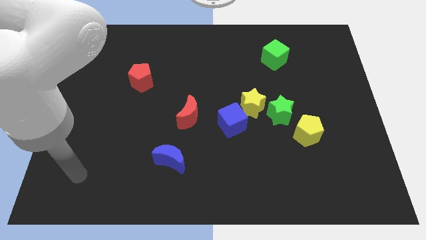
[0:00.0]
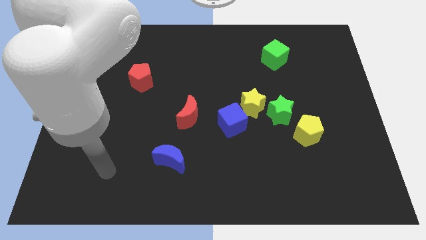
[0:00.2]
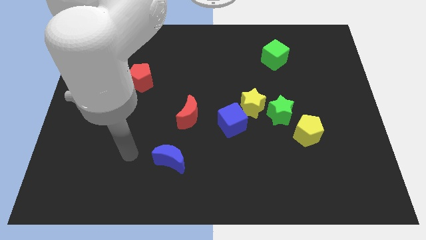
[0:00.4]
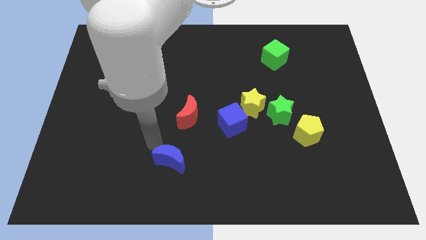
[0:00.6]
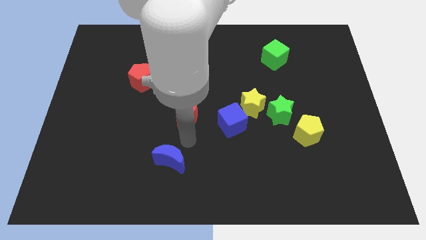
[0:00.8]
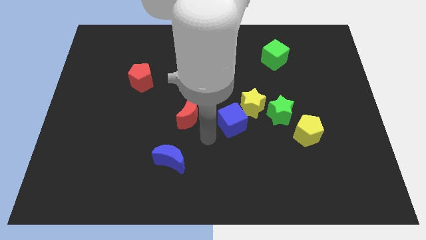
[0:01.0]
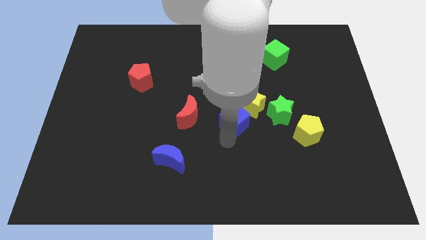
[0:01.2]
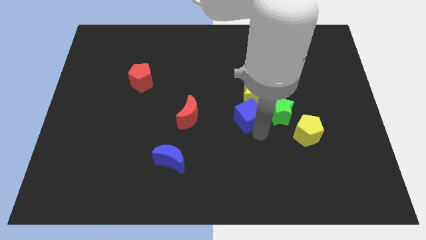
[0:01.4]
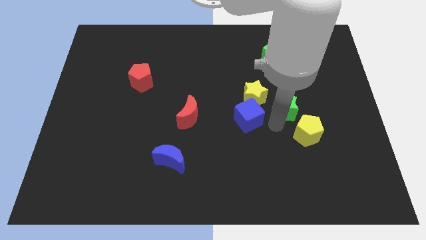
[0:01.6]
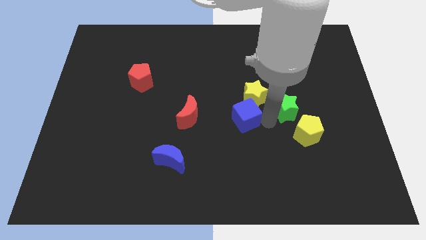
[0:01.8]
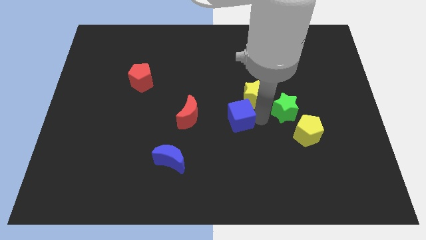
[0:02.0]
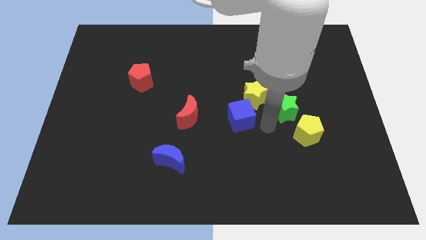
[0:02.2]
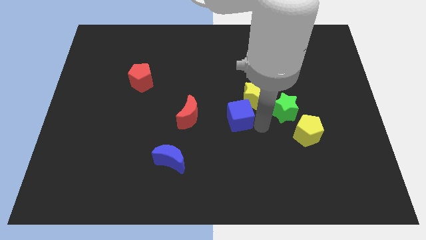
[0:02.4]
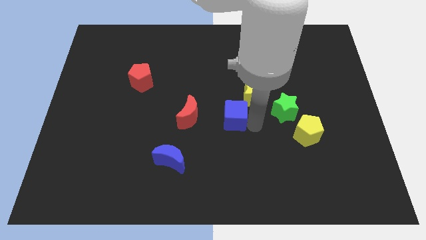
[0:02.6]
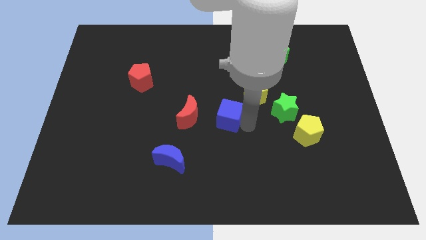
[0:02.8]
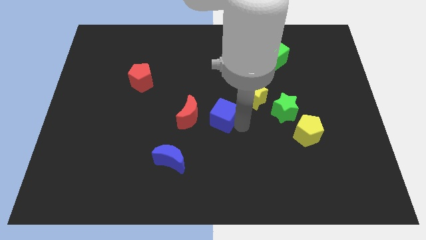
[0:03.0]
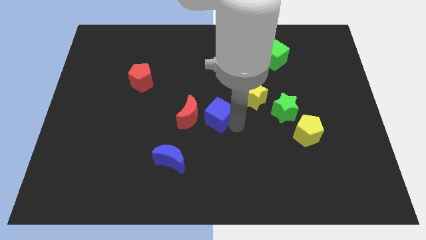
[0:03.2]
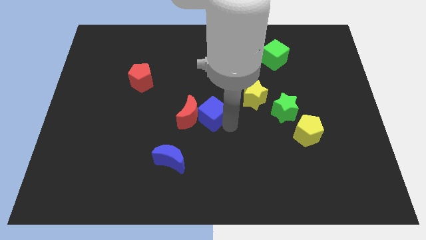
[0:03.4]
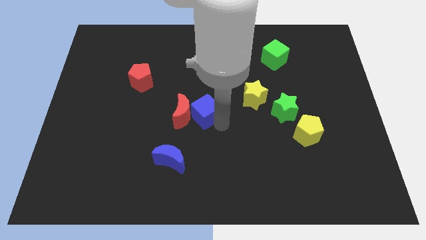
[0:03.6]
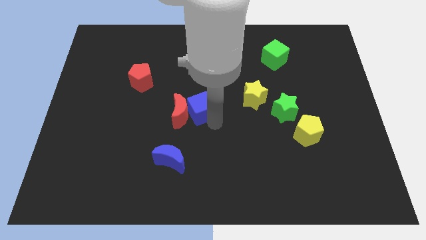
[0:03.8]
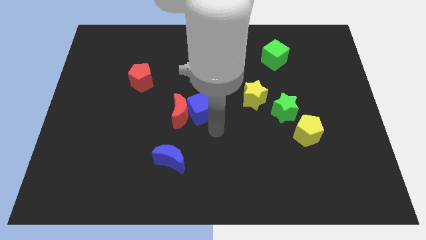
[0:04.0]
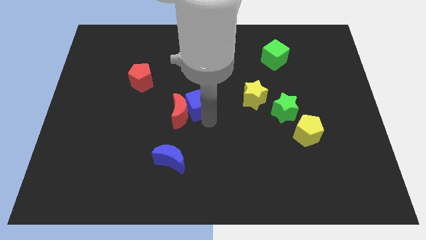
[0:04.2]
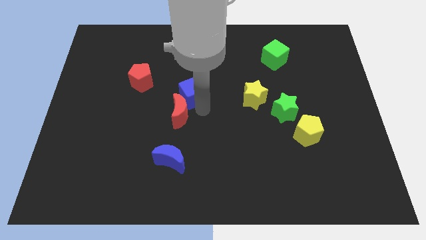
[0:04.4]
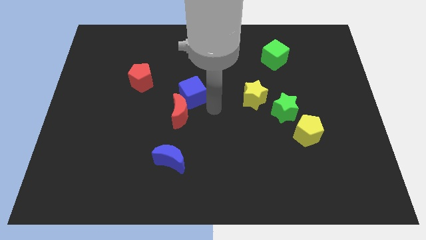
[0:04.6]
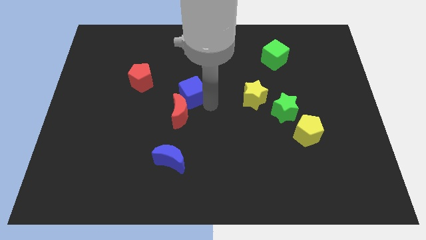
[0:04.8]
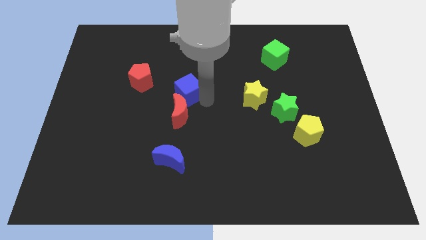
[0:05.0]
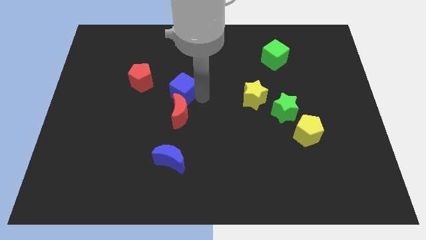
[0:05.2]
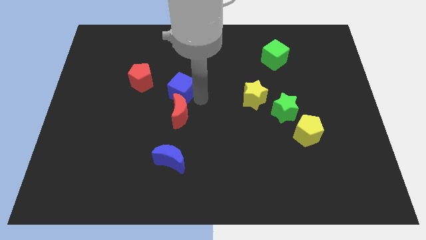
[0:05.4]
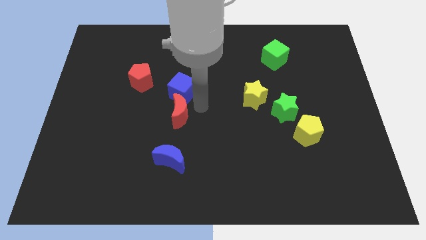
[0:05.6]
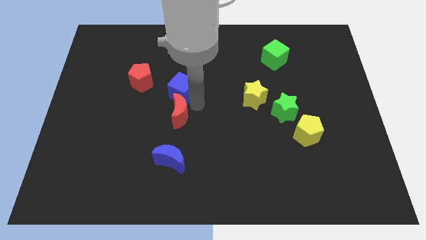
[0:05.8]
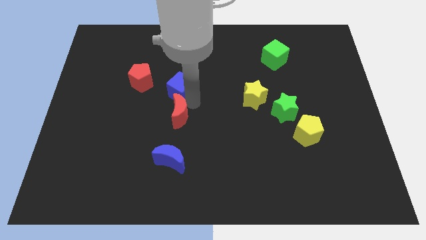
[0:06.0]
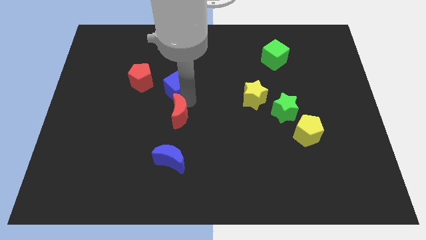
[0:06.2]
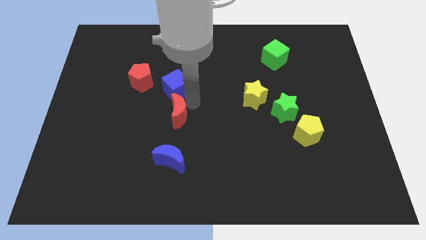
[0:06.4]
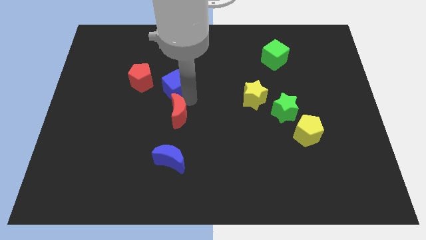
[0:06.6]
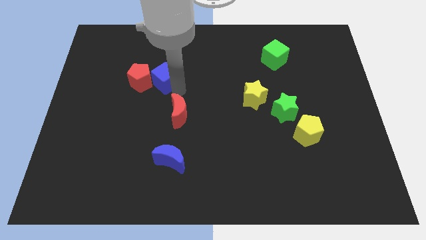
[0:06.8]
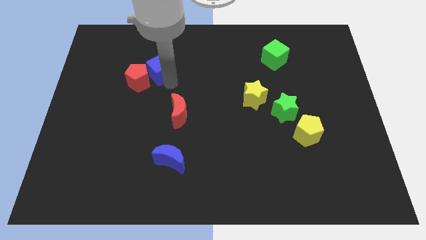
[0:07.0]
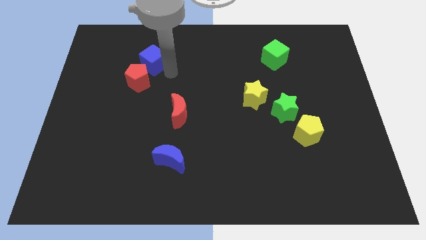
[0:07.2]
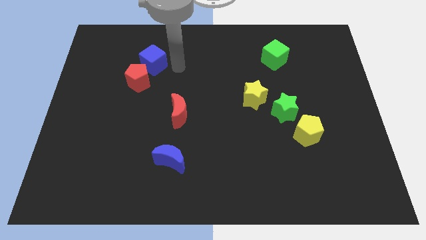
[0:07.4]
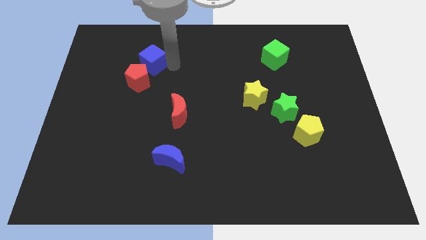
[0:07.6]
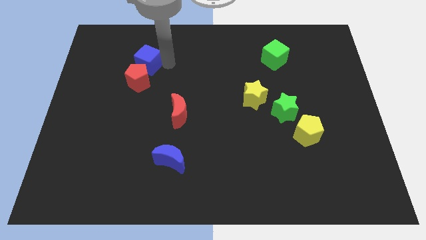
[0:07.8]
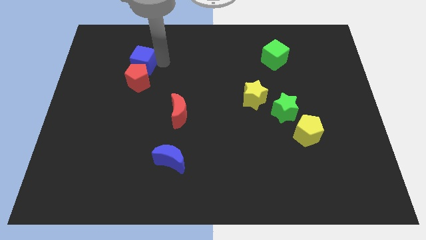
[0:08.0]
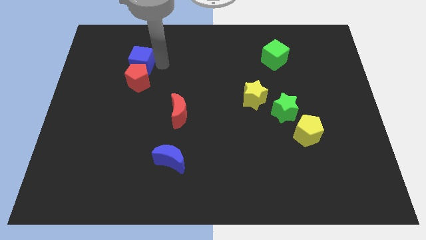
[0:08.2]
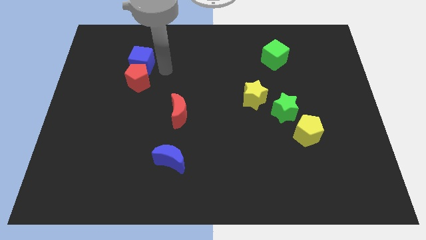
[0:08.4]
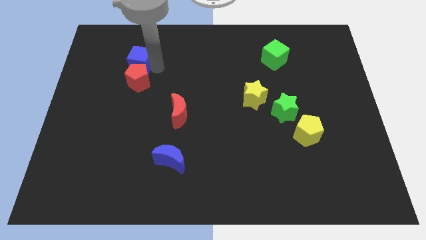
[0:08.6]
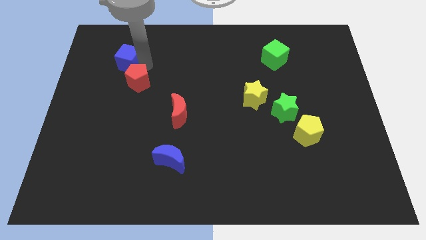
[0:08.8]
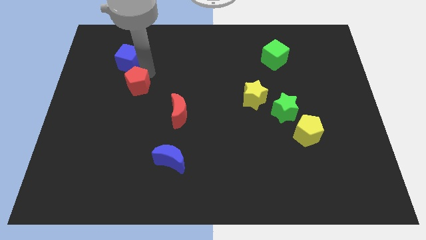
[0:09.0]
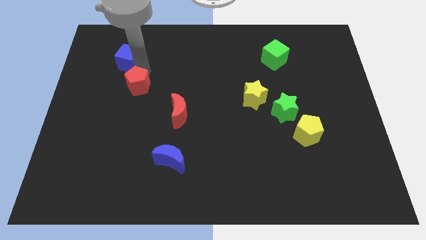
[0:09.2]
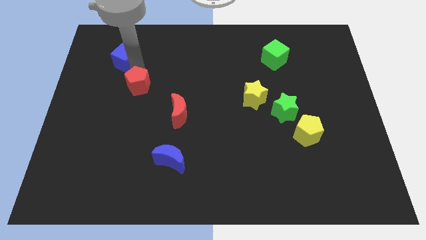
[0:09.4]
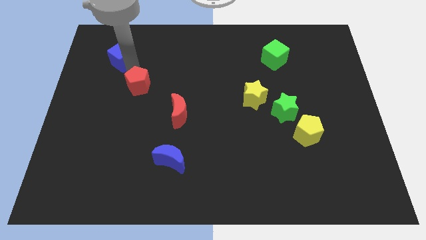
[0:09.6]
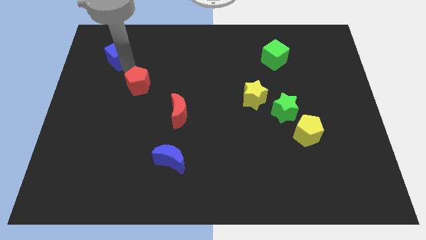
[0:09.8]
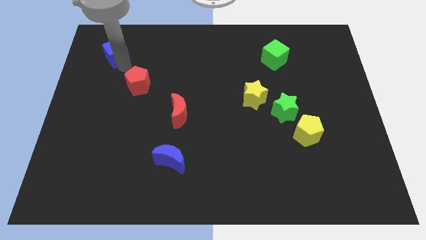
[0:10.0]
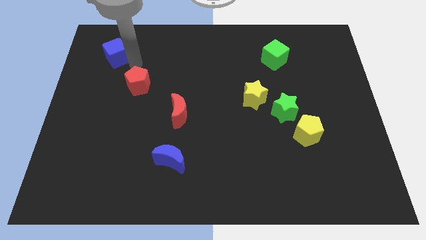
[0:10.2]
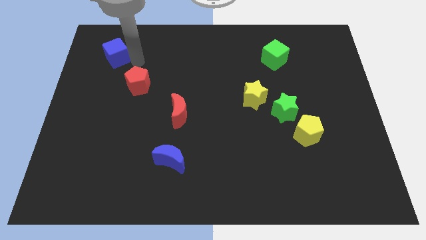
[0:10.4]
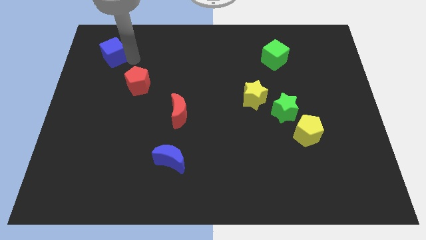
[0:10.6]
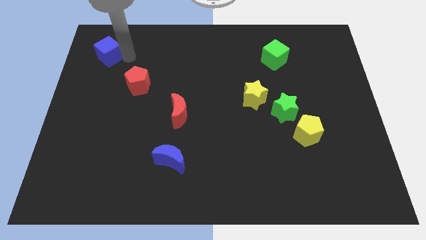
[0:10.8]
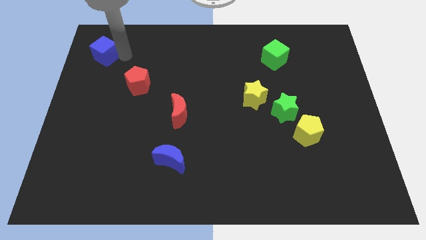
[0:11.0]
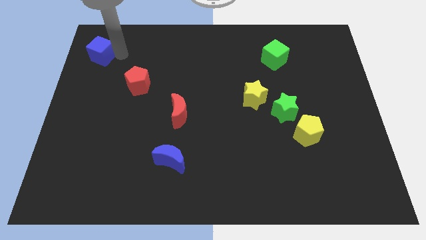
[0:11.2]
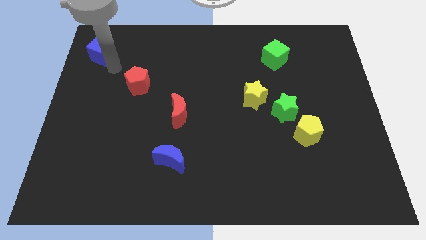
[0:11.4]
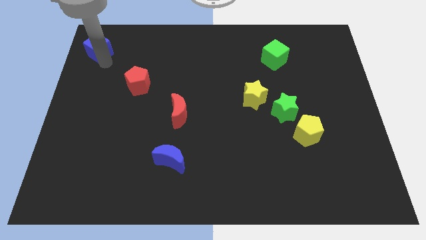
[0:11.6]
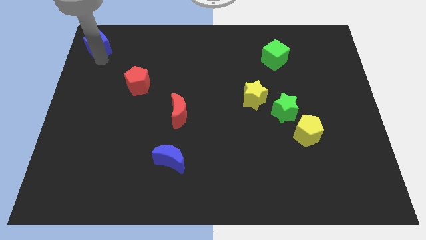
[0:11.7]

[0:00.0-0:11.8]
put the blue cube to the upper left corner

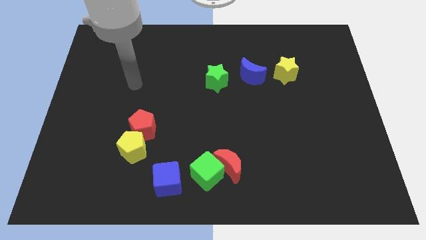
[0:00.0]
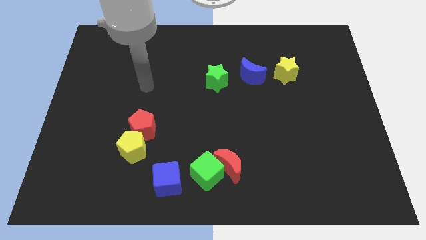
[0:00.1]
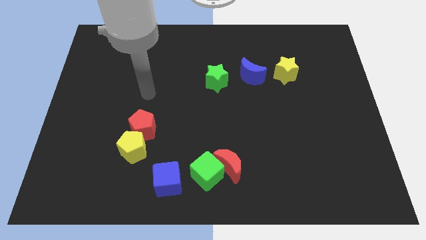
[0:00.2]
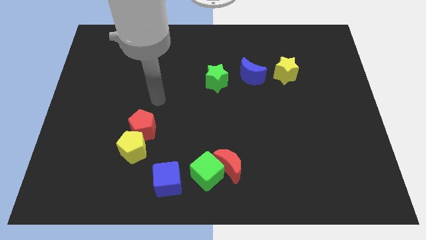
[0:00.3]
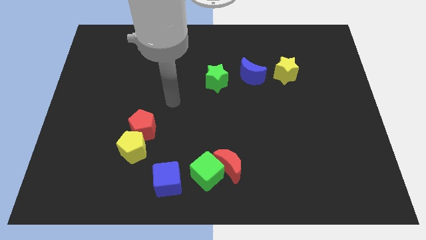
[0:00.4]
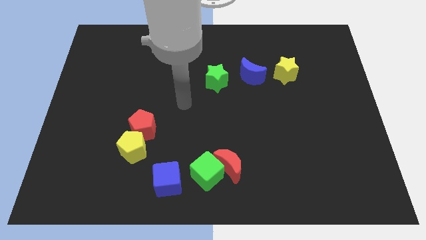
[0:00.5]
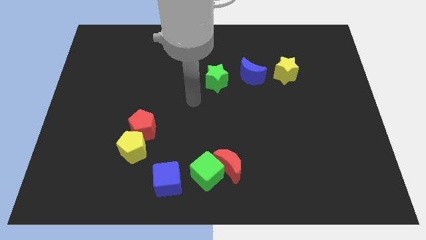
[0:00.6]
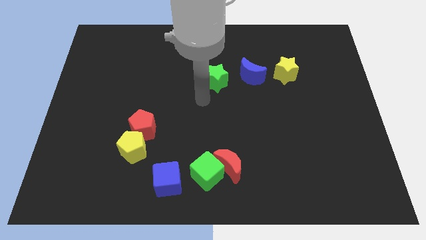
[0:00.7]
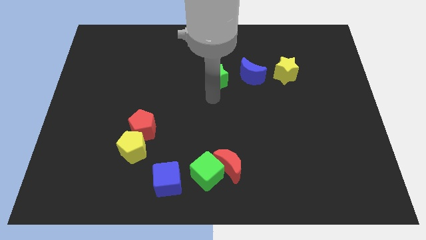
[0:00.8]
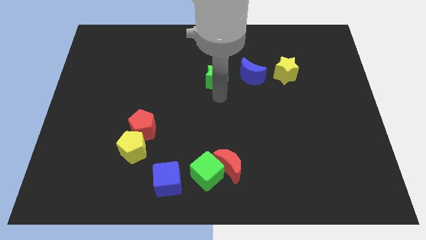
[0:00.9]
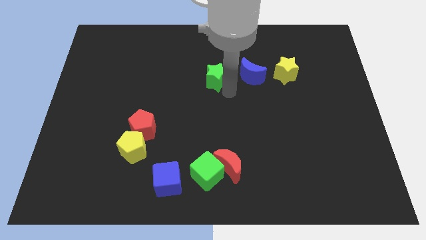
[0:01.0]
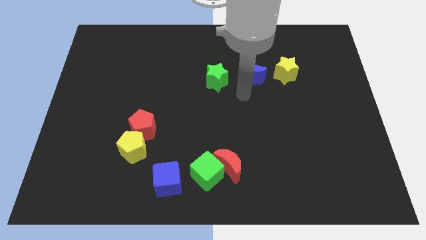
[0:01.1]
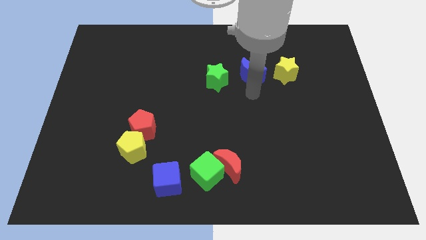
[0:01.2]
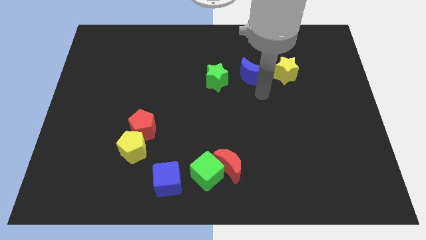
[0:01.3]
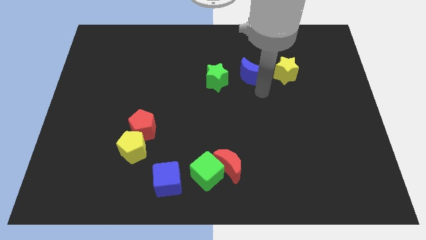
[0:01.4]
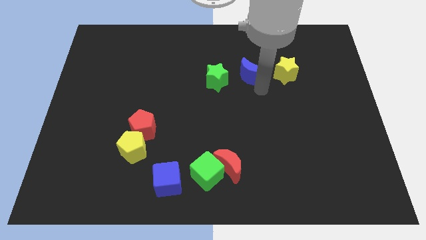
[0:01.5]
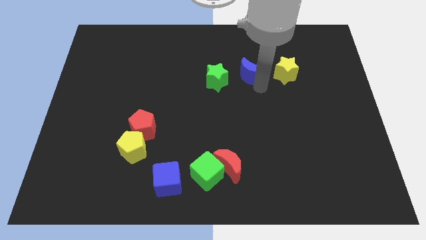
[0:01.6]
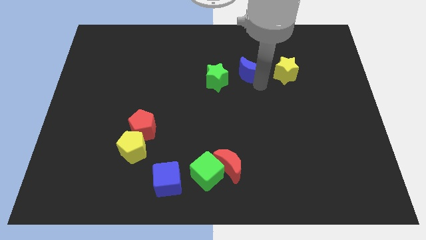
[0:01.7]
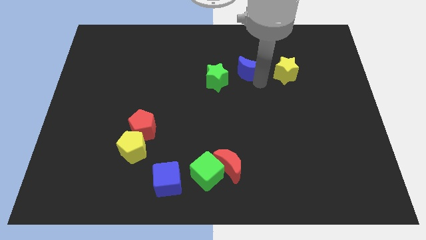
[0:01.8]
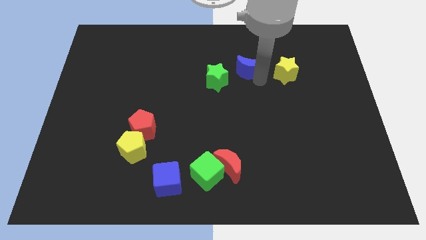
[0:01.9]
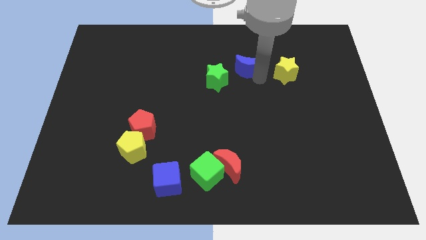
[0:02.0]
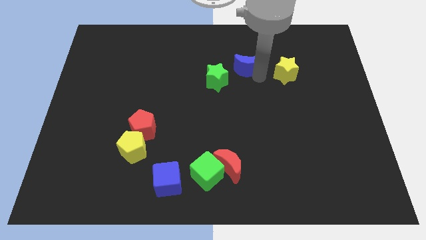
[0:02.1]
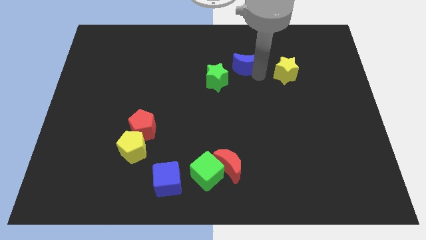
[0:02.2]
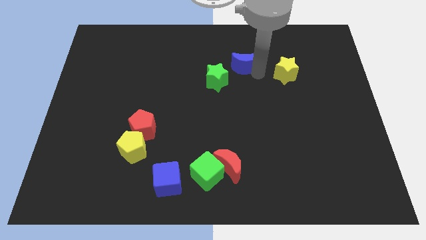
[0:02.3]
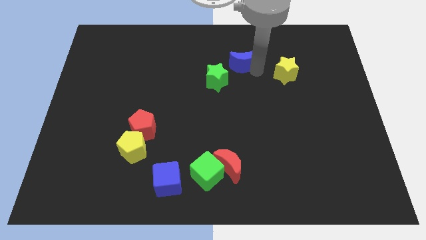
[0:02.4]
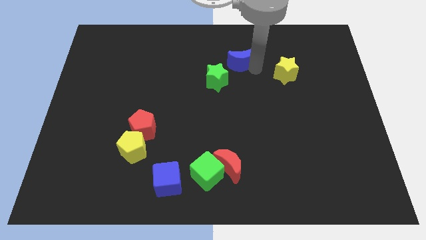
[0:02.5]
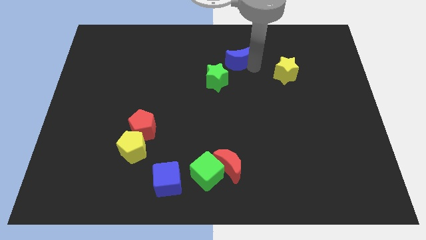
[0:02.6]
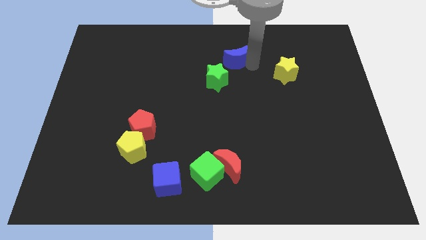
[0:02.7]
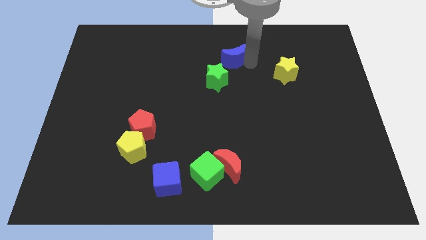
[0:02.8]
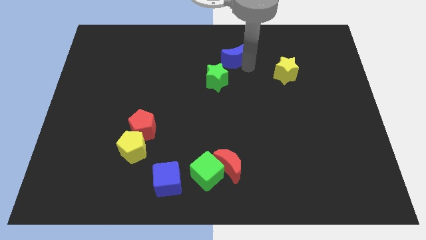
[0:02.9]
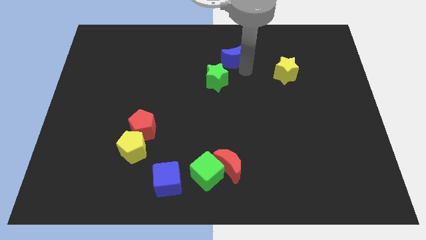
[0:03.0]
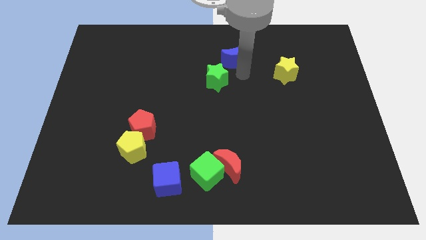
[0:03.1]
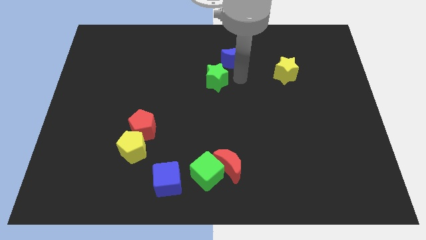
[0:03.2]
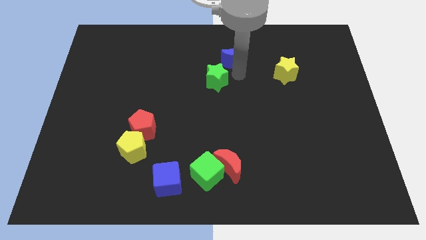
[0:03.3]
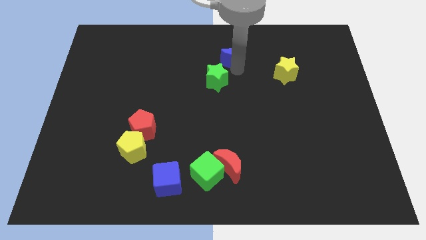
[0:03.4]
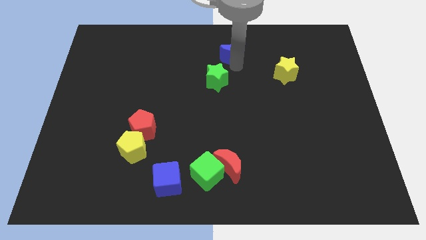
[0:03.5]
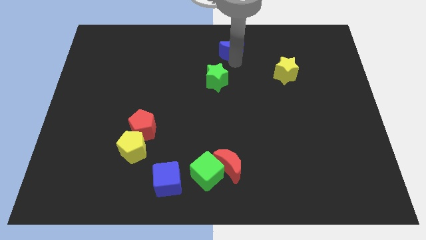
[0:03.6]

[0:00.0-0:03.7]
push the blue moon to the top
